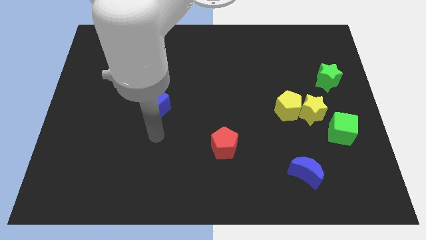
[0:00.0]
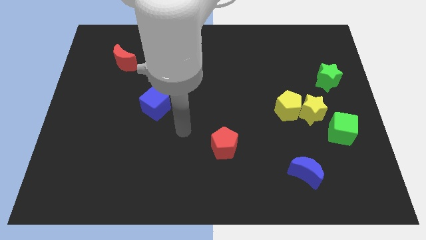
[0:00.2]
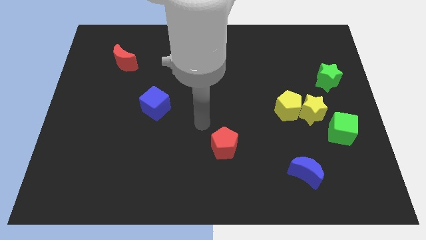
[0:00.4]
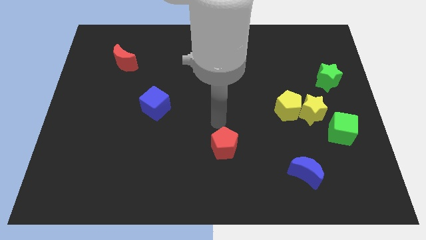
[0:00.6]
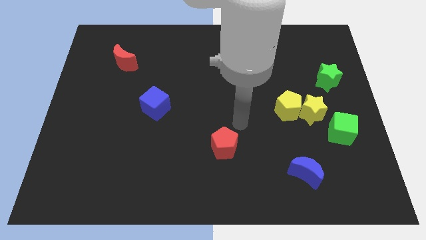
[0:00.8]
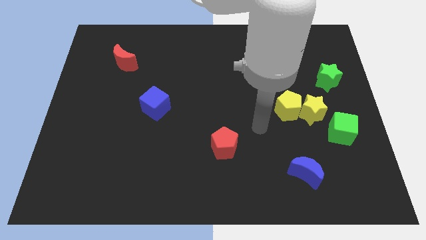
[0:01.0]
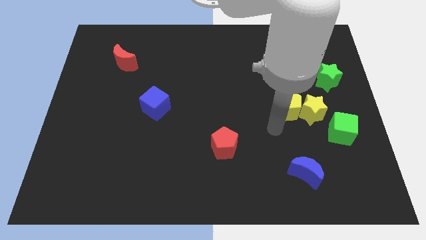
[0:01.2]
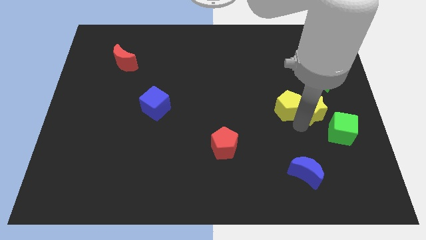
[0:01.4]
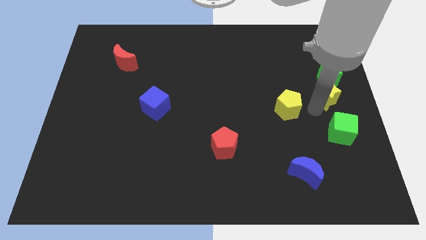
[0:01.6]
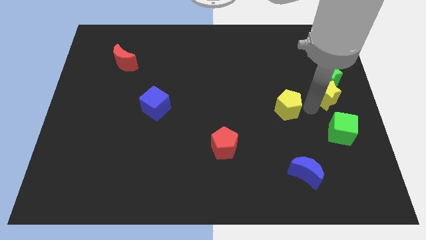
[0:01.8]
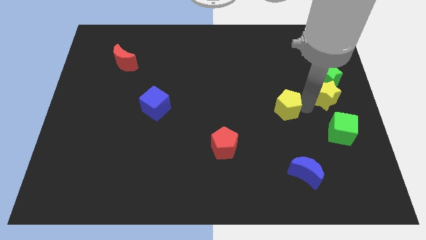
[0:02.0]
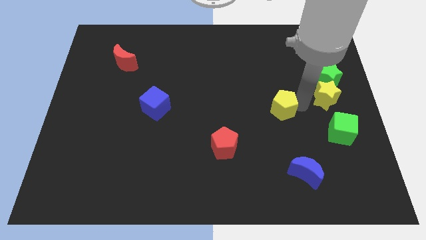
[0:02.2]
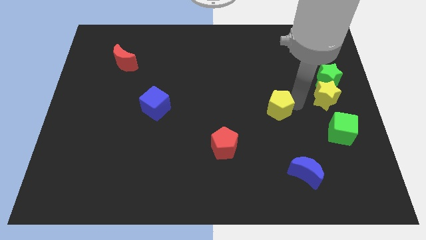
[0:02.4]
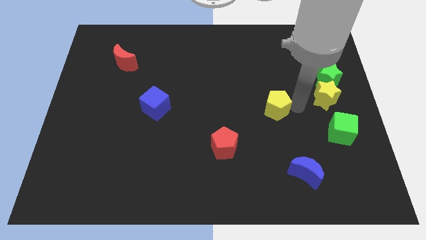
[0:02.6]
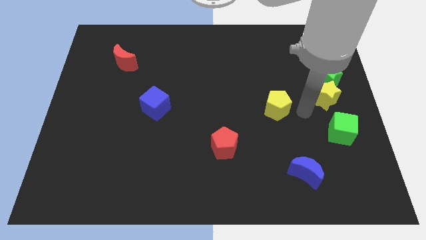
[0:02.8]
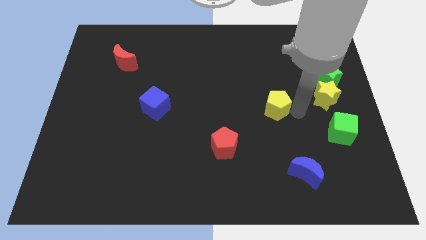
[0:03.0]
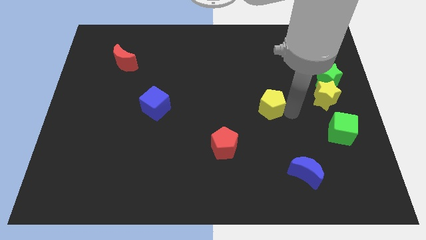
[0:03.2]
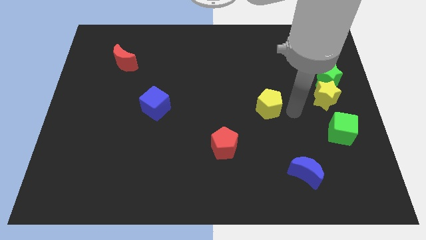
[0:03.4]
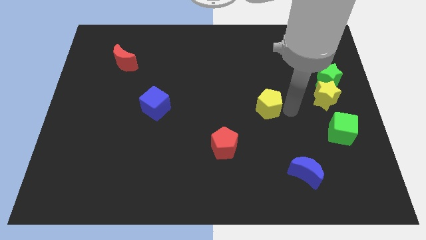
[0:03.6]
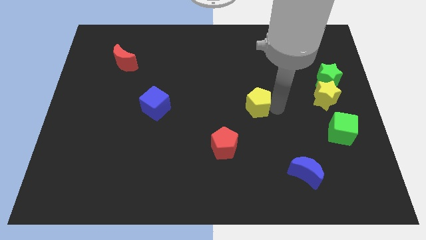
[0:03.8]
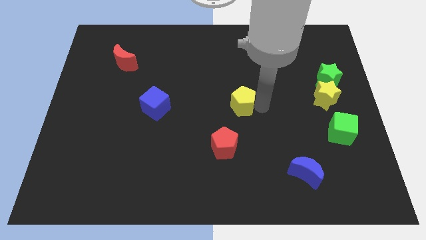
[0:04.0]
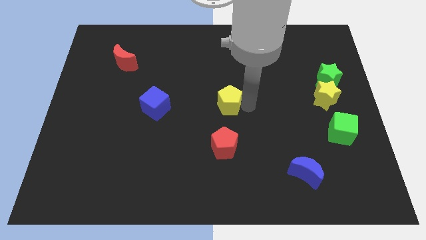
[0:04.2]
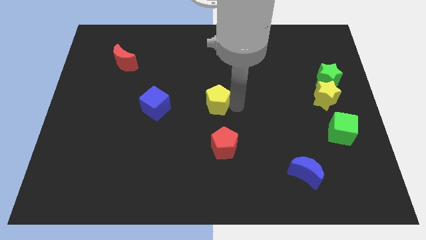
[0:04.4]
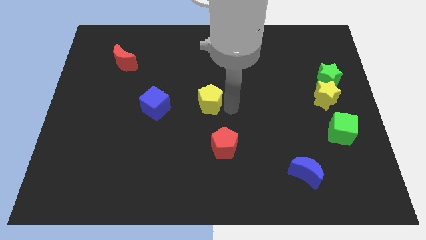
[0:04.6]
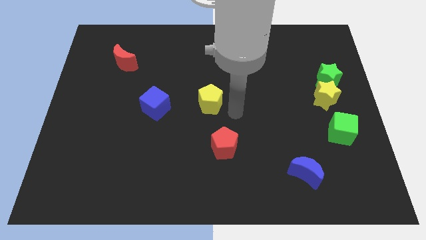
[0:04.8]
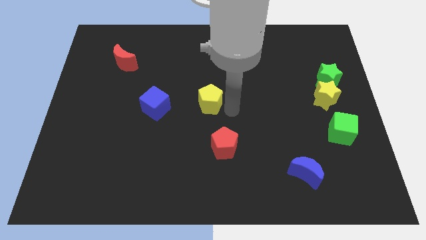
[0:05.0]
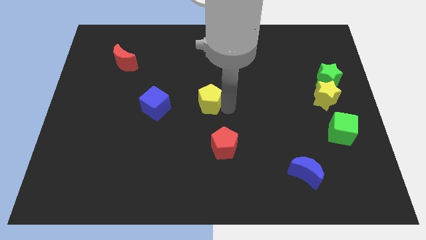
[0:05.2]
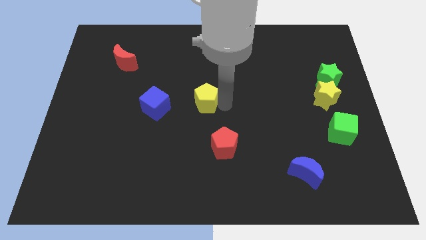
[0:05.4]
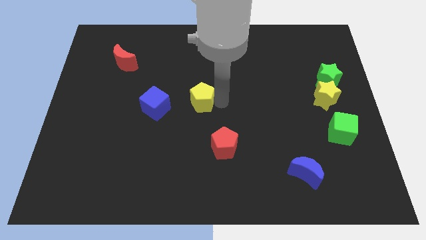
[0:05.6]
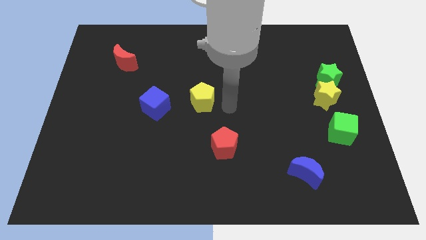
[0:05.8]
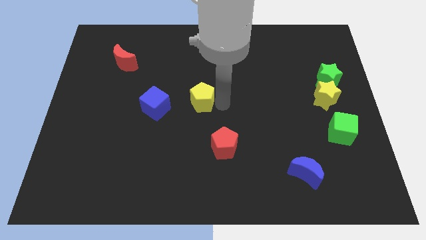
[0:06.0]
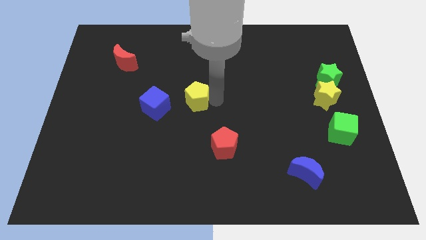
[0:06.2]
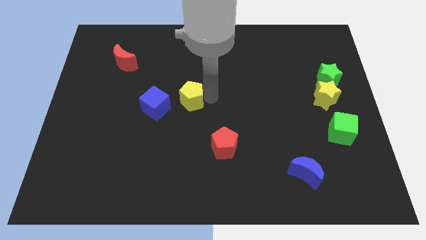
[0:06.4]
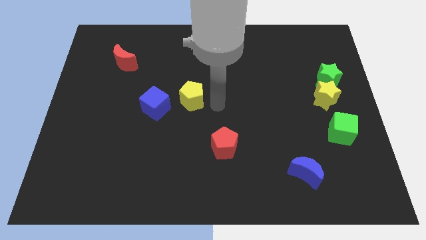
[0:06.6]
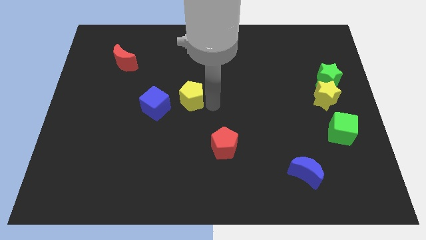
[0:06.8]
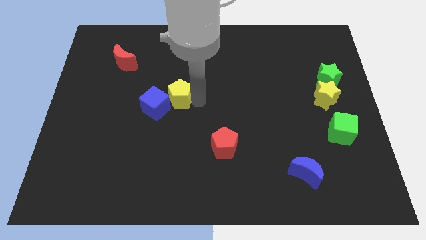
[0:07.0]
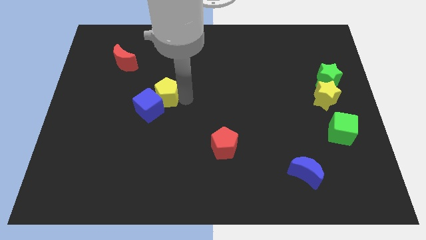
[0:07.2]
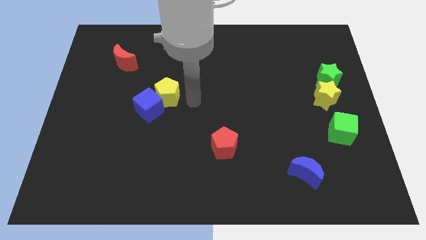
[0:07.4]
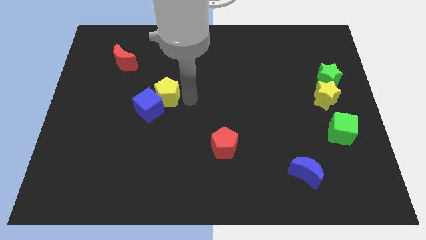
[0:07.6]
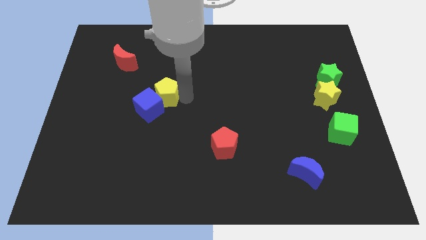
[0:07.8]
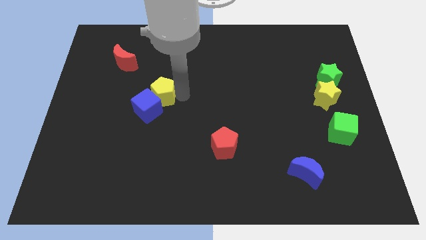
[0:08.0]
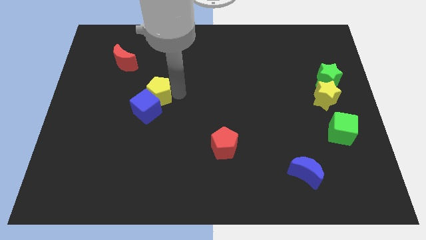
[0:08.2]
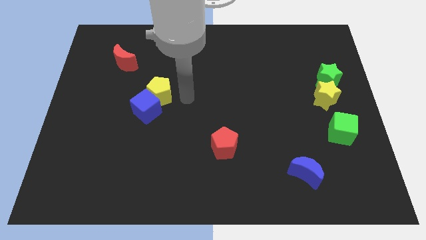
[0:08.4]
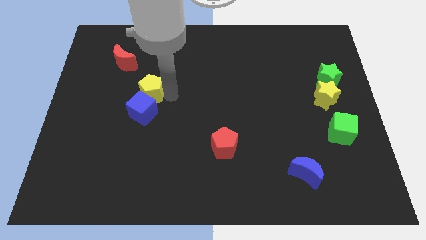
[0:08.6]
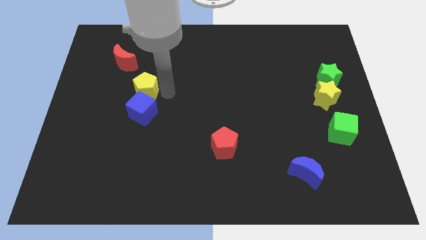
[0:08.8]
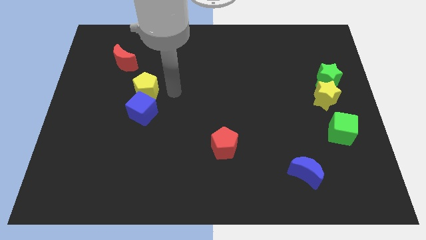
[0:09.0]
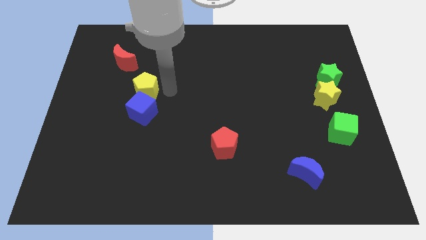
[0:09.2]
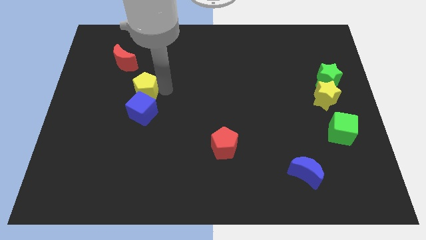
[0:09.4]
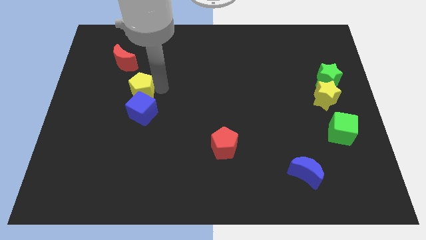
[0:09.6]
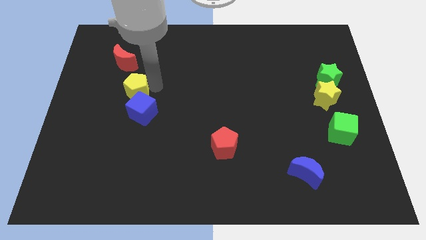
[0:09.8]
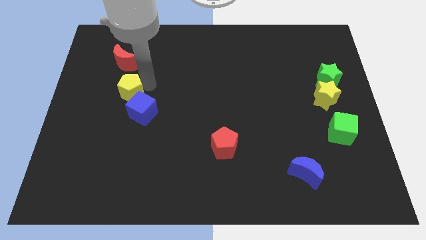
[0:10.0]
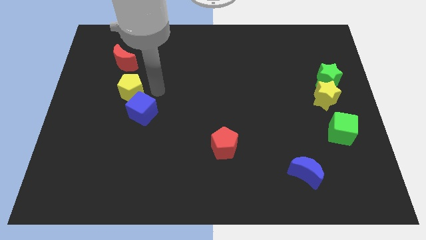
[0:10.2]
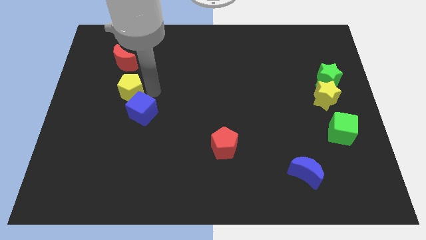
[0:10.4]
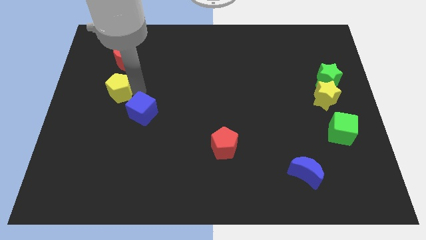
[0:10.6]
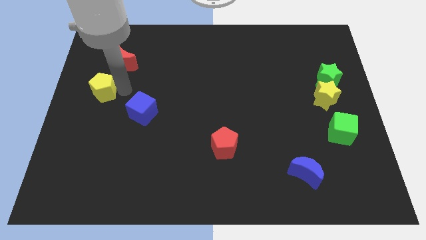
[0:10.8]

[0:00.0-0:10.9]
slide the yellow pentagon to the center left

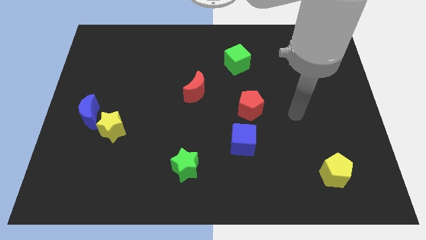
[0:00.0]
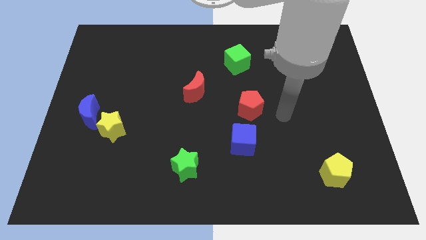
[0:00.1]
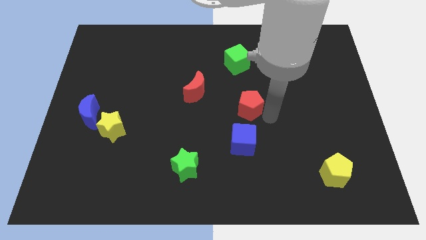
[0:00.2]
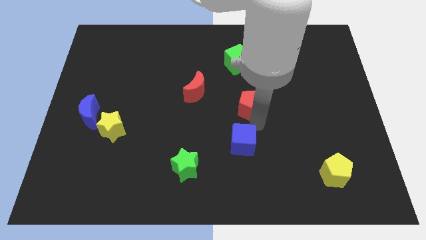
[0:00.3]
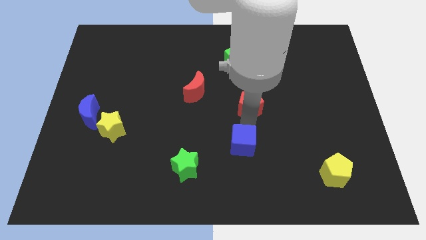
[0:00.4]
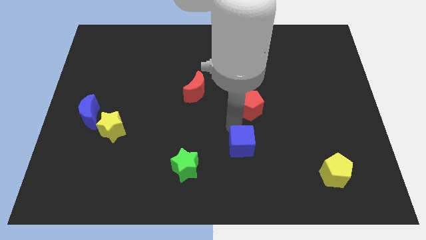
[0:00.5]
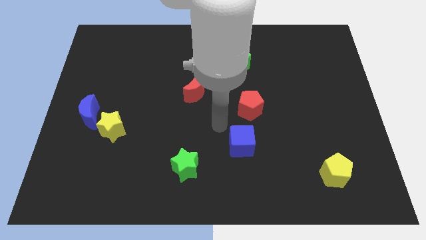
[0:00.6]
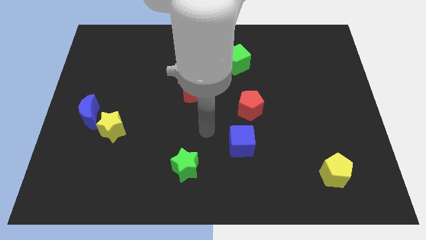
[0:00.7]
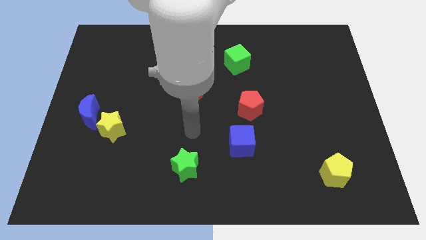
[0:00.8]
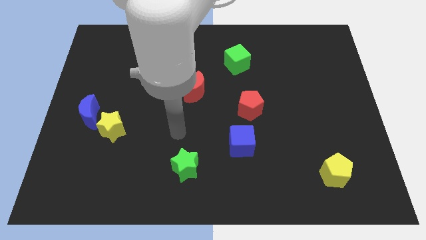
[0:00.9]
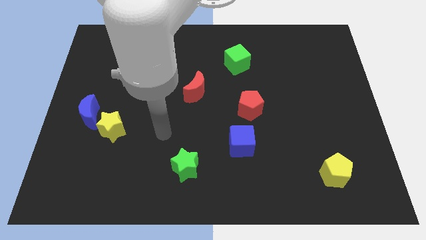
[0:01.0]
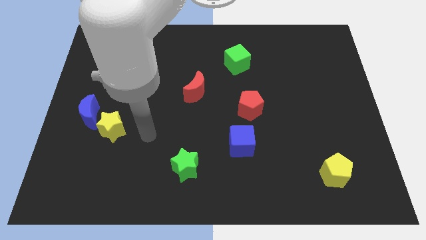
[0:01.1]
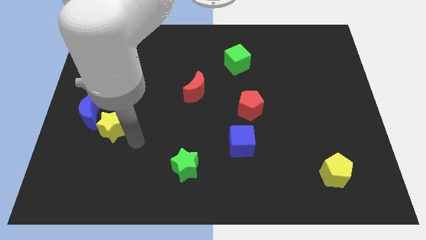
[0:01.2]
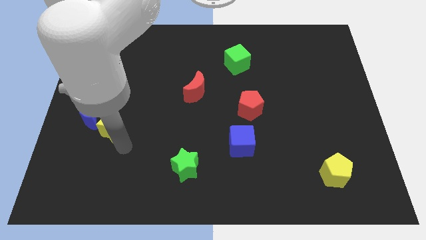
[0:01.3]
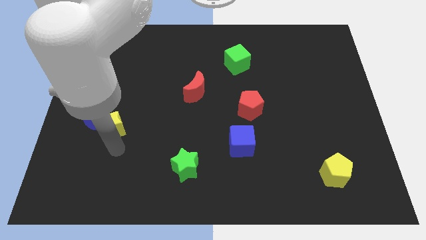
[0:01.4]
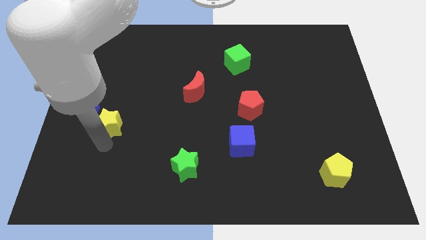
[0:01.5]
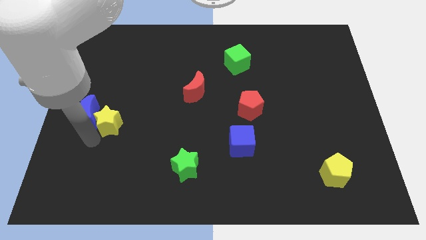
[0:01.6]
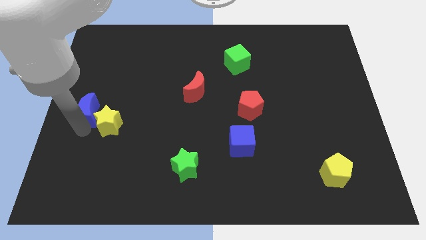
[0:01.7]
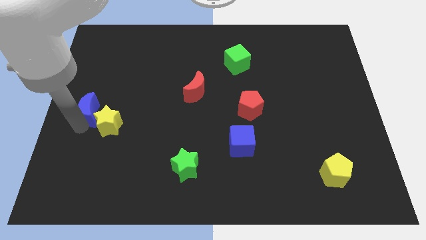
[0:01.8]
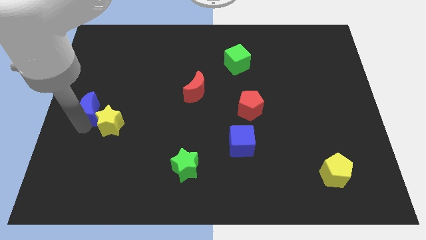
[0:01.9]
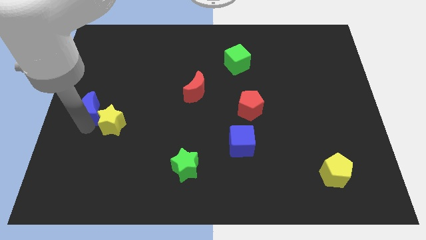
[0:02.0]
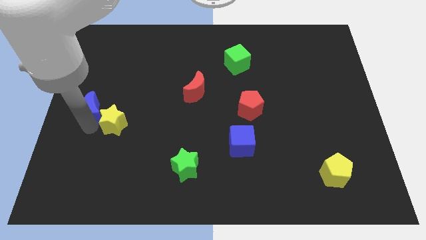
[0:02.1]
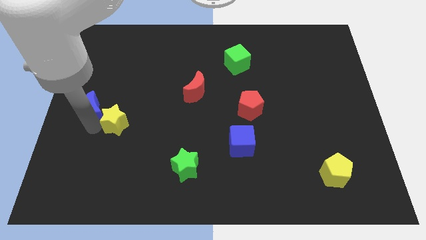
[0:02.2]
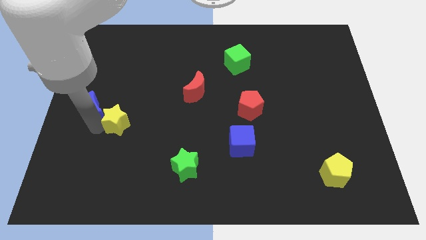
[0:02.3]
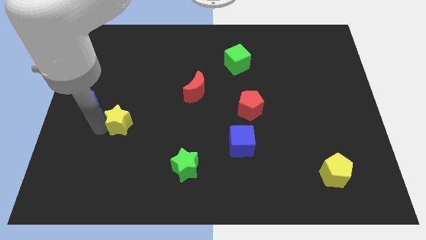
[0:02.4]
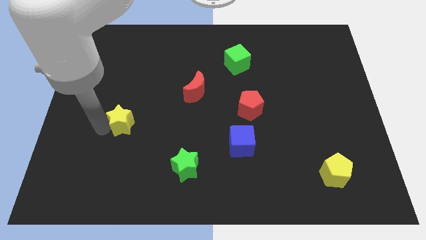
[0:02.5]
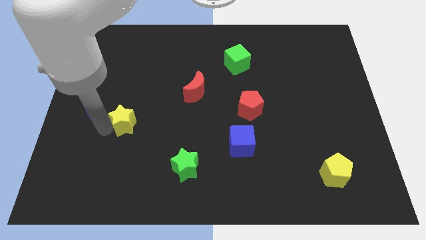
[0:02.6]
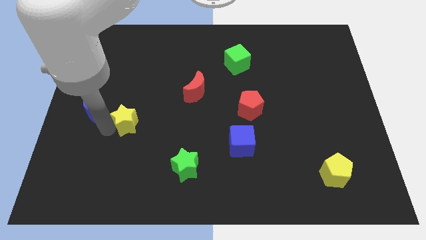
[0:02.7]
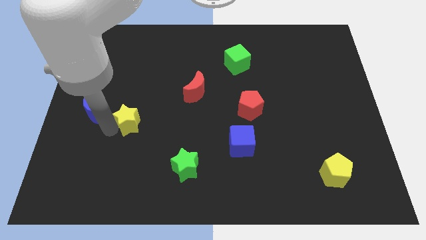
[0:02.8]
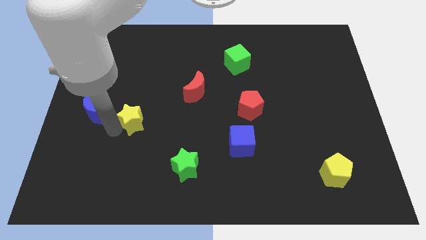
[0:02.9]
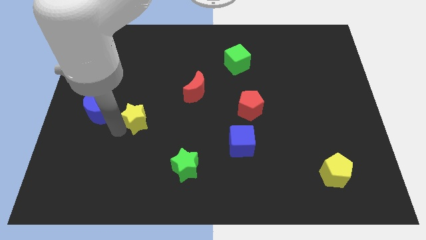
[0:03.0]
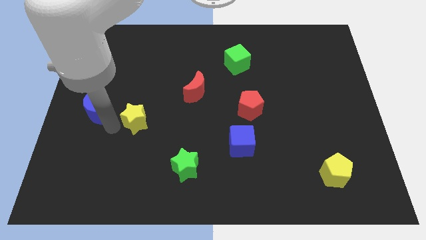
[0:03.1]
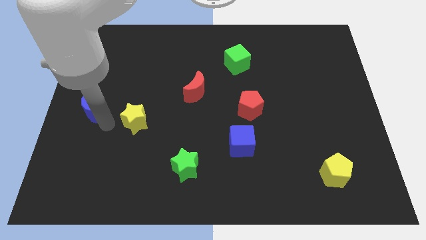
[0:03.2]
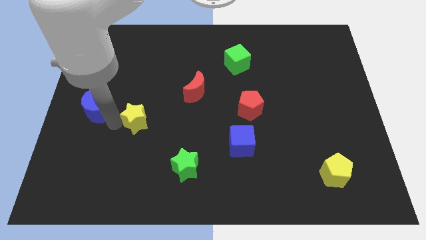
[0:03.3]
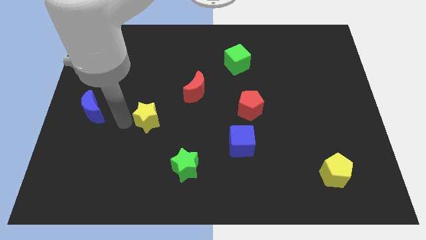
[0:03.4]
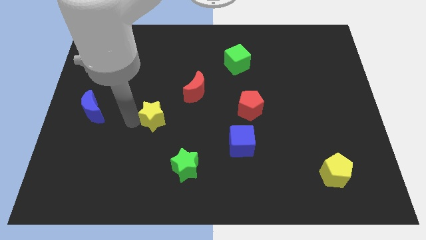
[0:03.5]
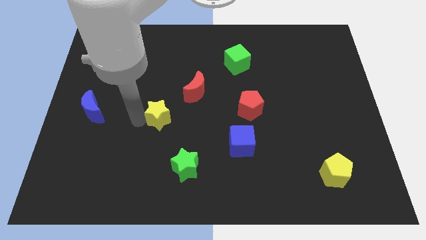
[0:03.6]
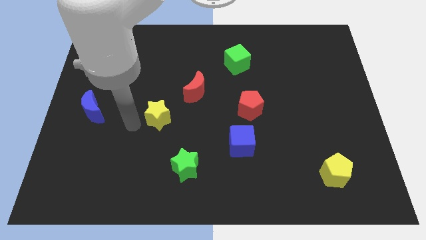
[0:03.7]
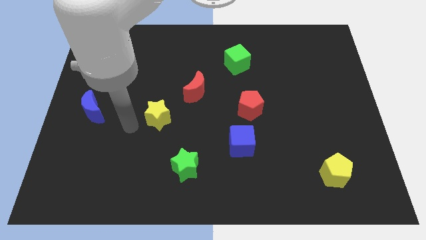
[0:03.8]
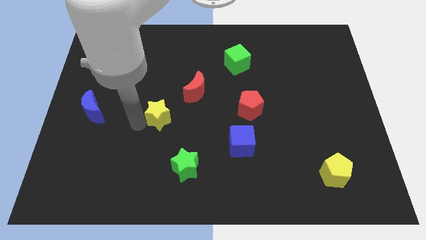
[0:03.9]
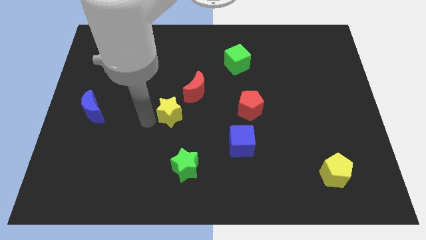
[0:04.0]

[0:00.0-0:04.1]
slide the yellow star to the middle
